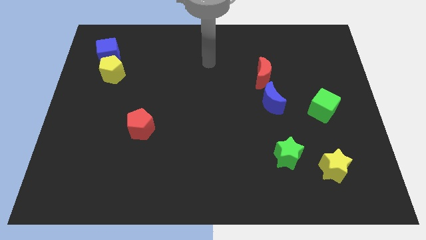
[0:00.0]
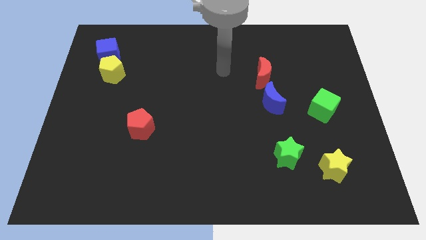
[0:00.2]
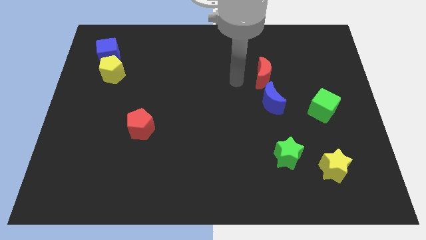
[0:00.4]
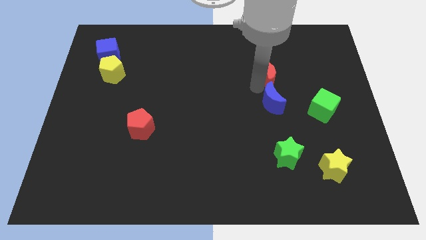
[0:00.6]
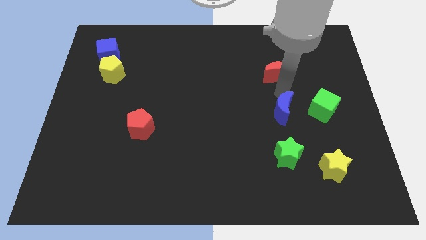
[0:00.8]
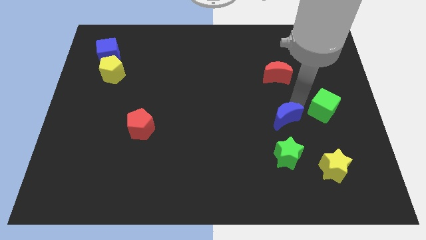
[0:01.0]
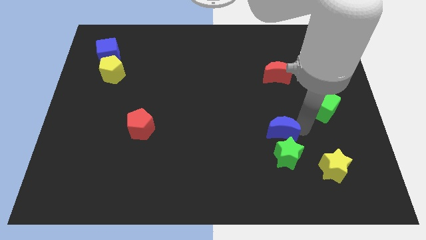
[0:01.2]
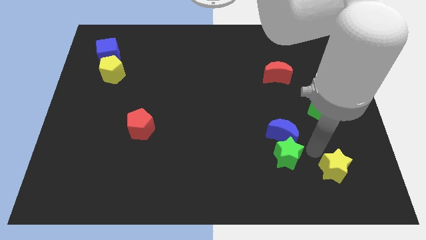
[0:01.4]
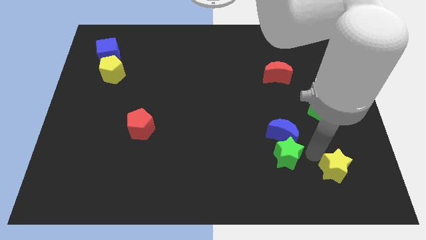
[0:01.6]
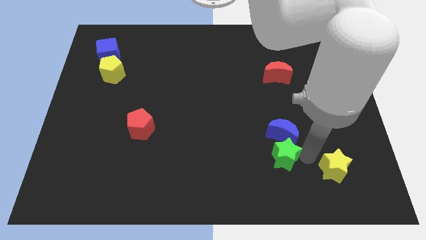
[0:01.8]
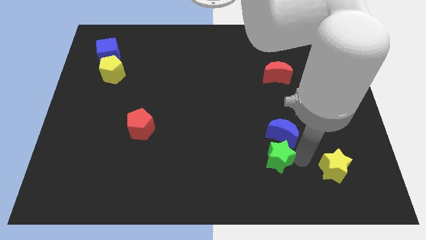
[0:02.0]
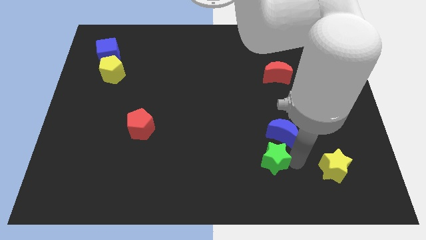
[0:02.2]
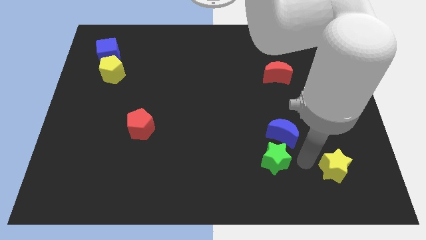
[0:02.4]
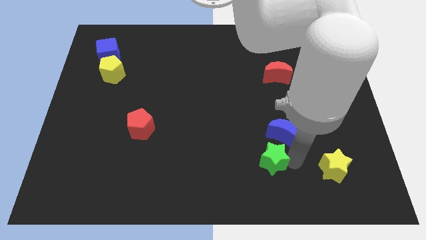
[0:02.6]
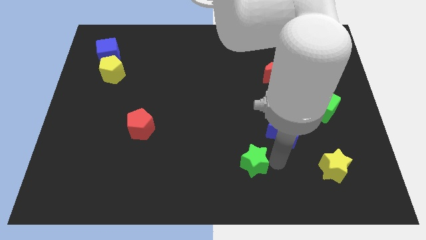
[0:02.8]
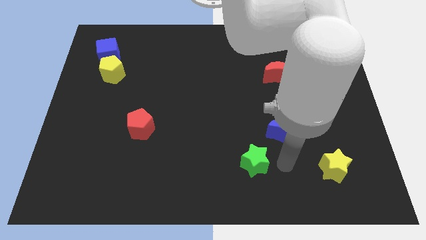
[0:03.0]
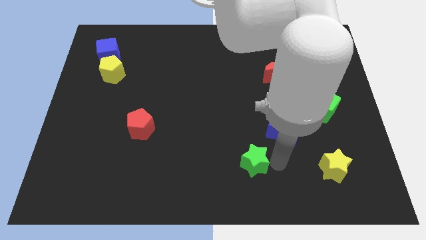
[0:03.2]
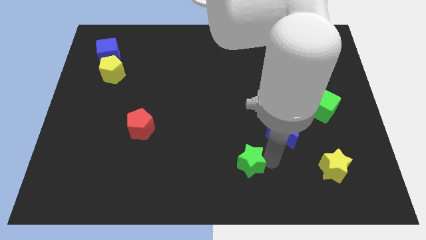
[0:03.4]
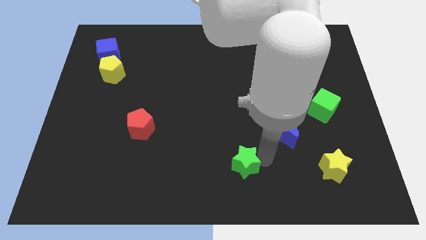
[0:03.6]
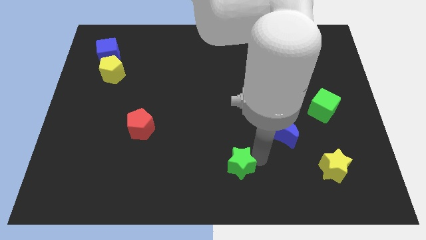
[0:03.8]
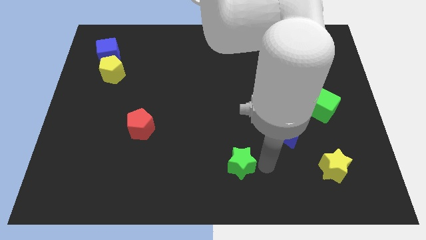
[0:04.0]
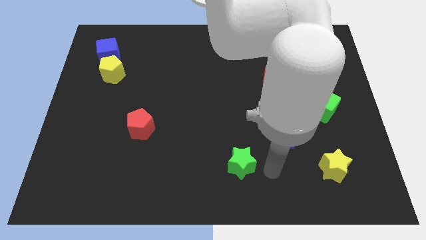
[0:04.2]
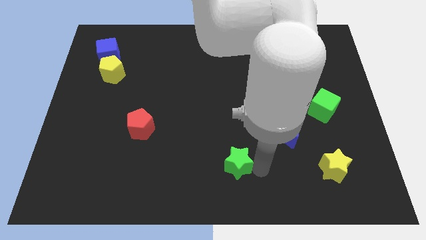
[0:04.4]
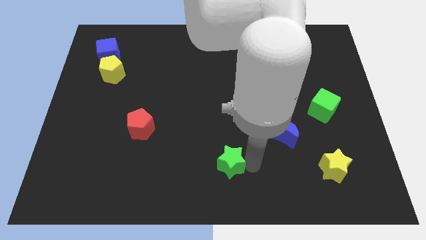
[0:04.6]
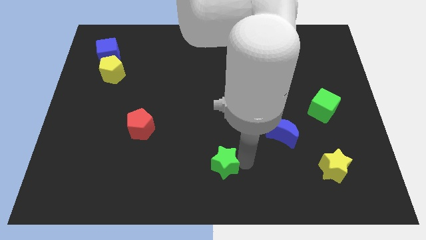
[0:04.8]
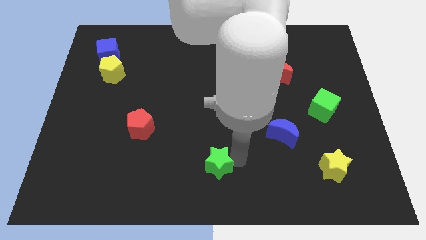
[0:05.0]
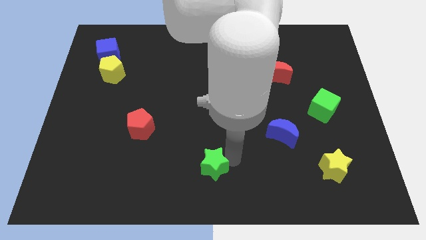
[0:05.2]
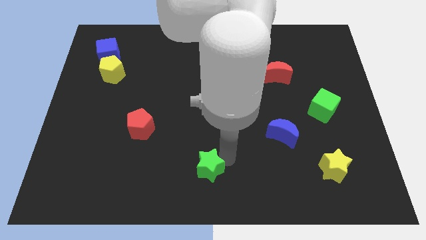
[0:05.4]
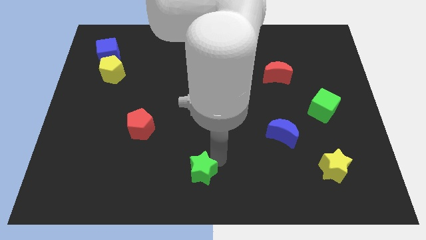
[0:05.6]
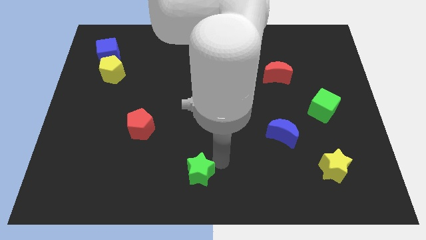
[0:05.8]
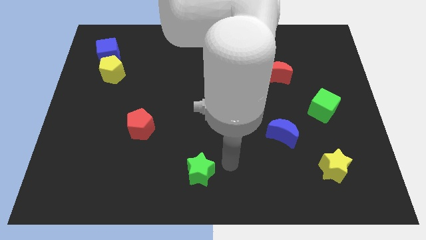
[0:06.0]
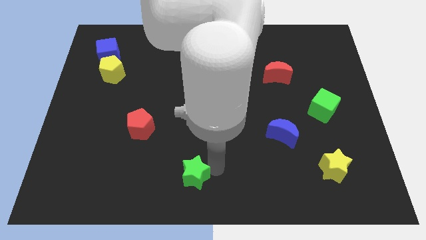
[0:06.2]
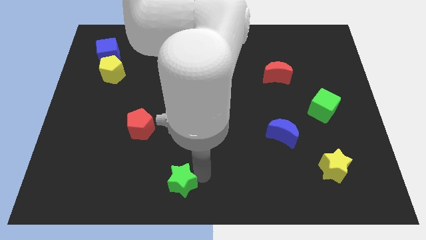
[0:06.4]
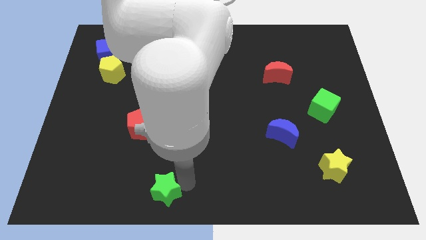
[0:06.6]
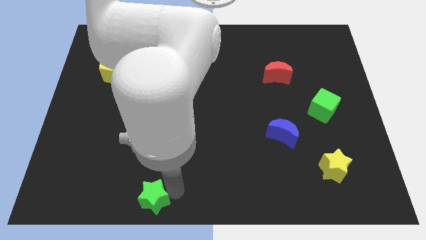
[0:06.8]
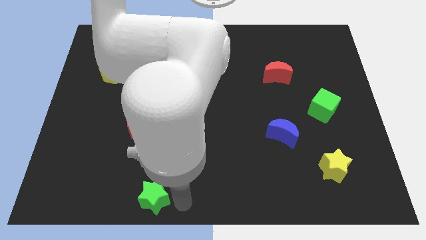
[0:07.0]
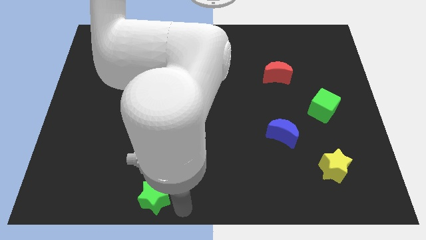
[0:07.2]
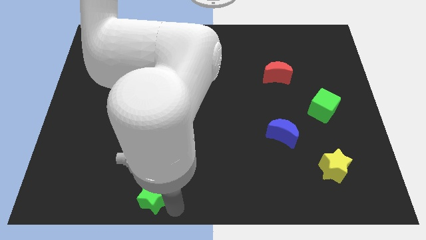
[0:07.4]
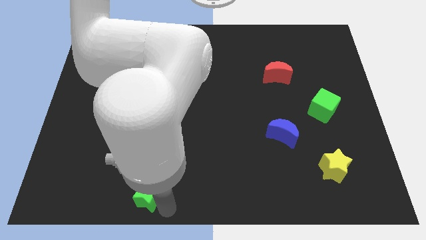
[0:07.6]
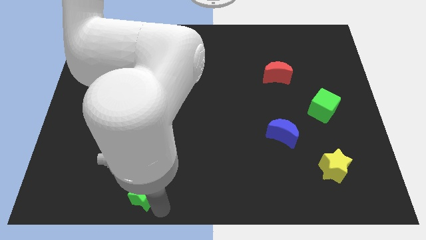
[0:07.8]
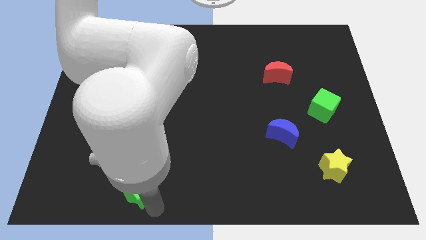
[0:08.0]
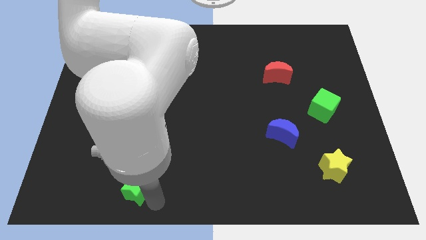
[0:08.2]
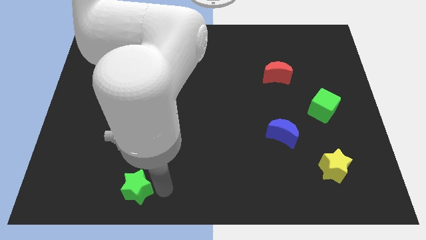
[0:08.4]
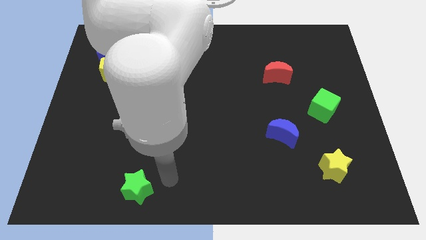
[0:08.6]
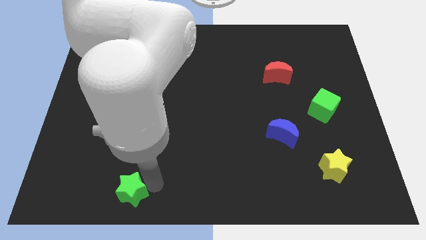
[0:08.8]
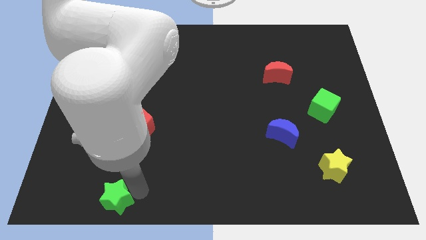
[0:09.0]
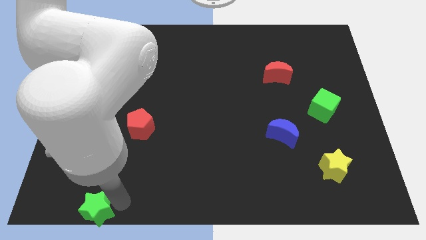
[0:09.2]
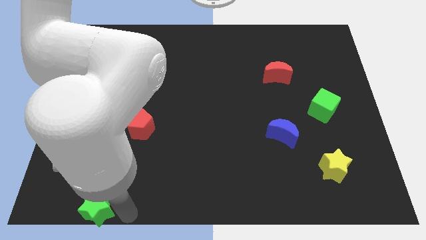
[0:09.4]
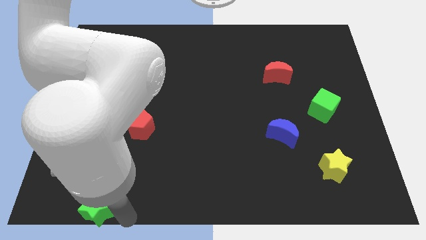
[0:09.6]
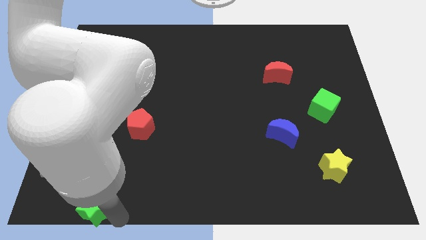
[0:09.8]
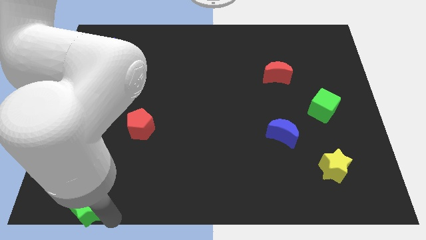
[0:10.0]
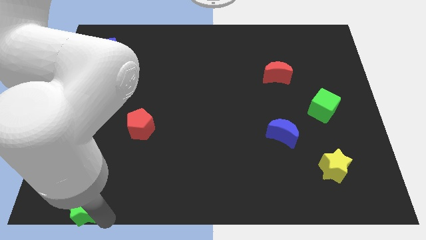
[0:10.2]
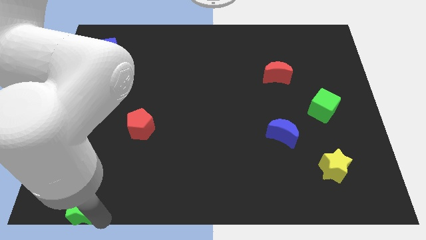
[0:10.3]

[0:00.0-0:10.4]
put the green star to the bottom left of the board

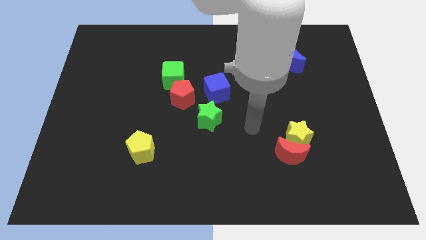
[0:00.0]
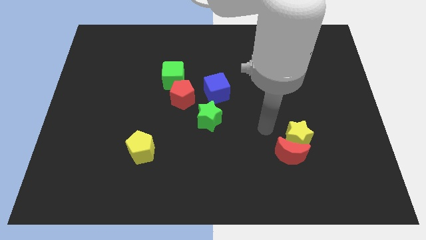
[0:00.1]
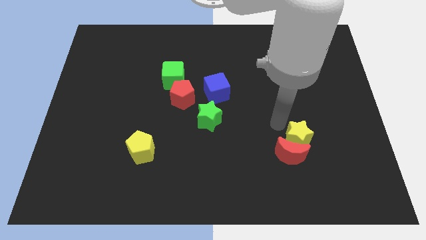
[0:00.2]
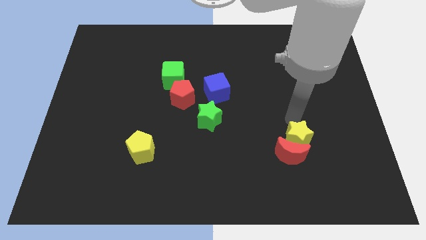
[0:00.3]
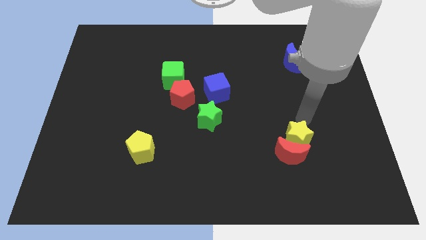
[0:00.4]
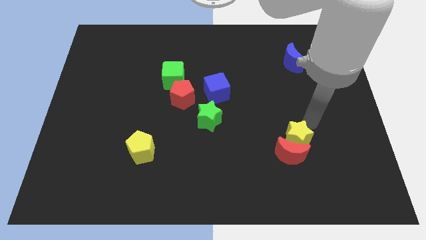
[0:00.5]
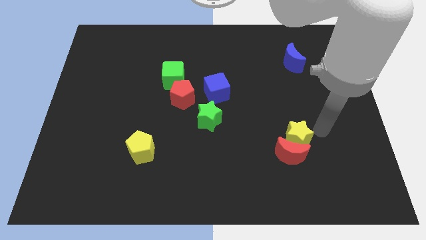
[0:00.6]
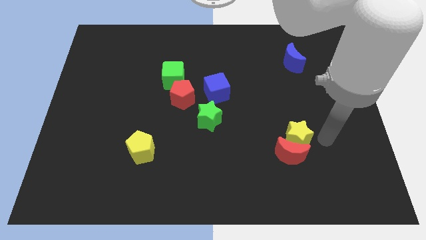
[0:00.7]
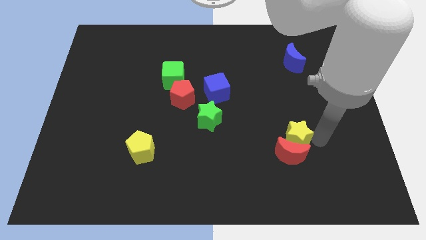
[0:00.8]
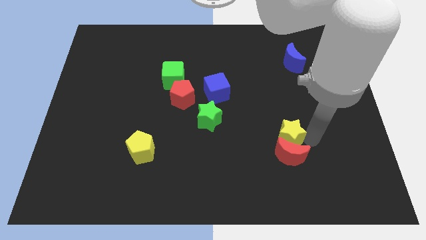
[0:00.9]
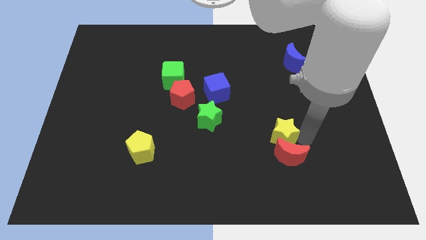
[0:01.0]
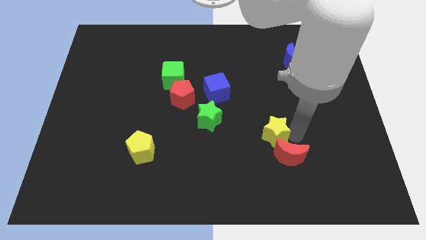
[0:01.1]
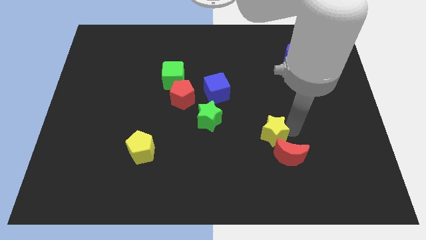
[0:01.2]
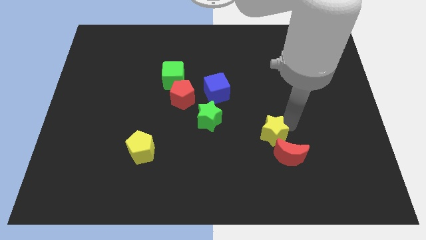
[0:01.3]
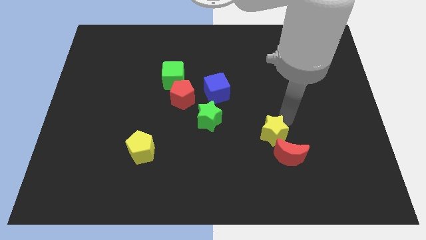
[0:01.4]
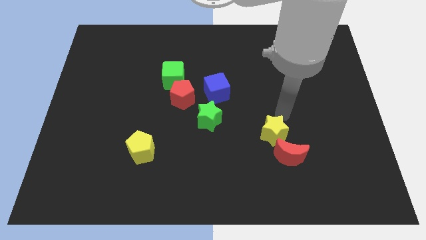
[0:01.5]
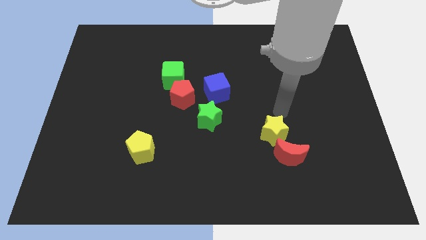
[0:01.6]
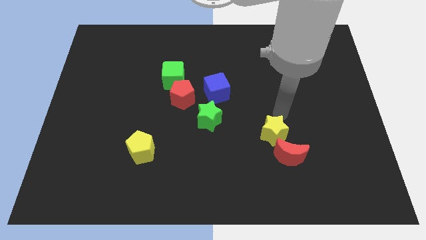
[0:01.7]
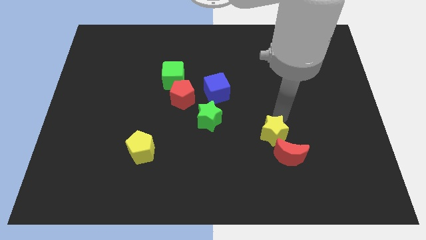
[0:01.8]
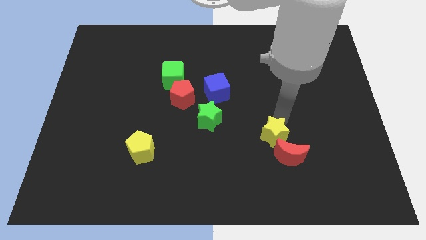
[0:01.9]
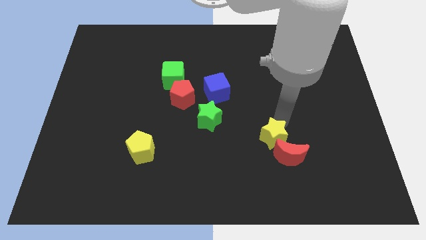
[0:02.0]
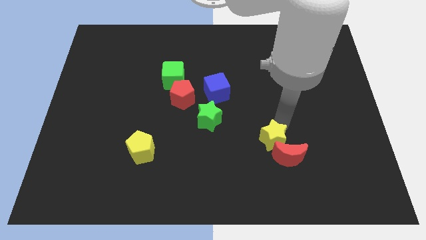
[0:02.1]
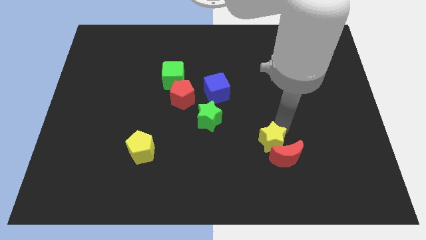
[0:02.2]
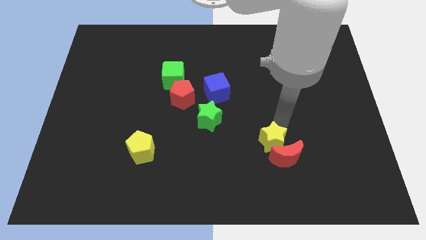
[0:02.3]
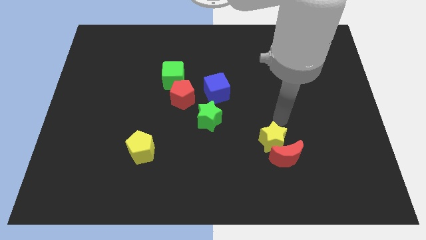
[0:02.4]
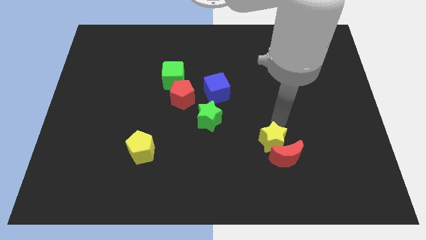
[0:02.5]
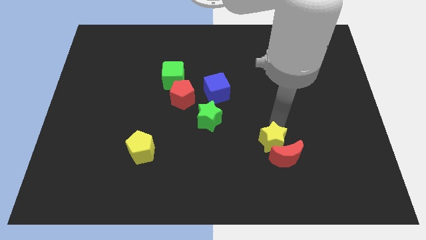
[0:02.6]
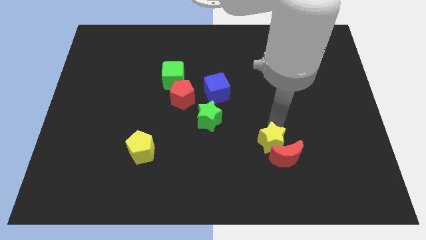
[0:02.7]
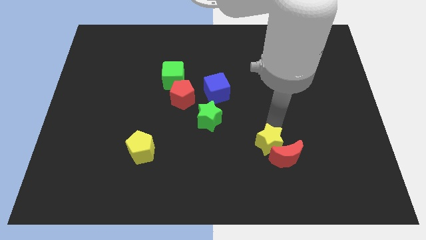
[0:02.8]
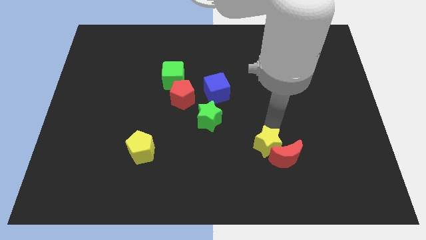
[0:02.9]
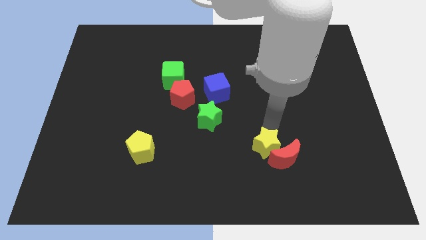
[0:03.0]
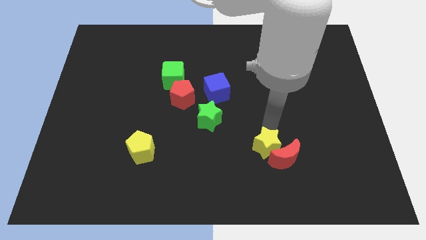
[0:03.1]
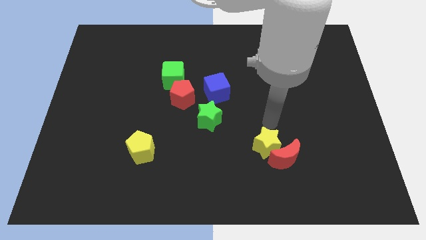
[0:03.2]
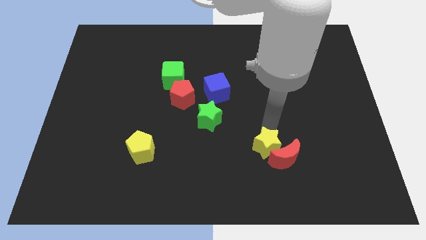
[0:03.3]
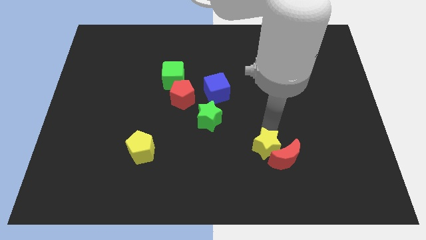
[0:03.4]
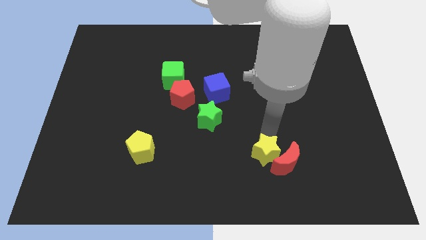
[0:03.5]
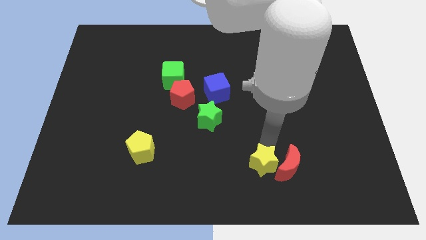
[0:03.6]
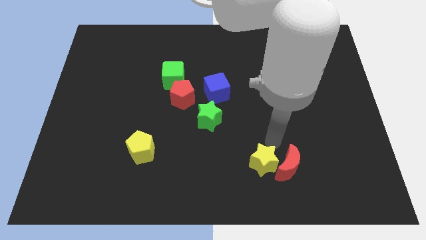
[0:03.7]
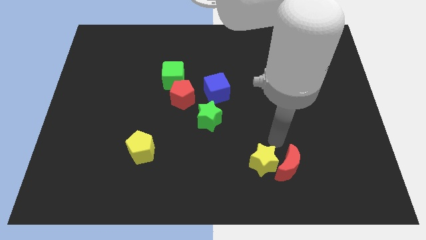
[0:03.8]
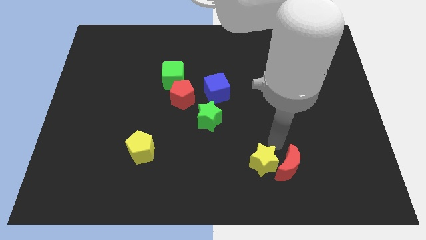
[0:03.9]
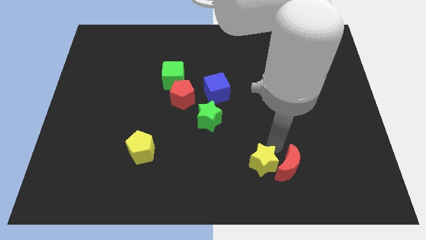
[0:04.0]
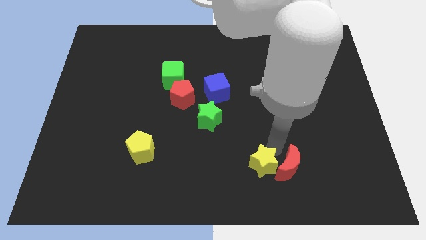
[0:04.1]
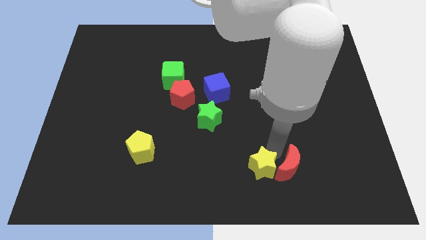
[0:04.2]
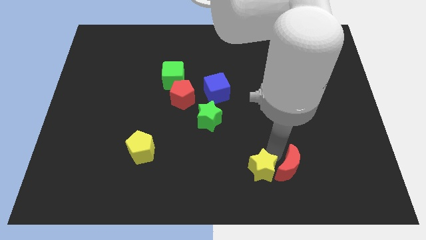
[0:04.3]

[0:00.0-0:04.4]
put the yellow star to the bottom side
